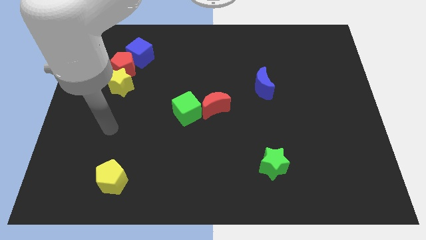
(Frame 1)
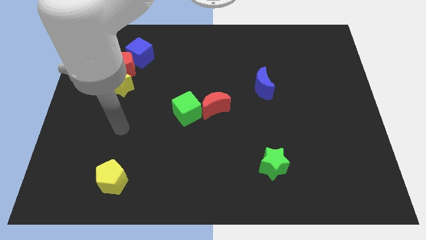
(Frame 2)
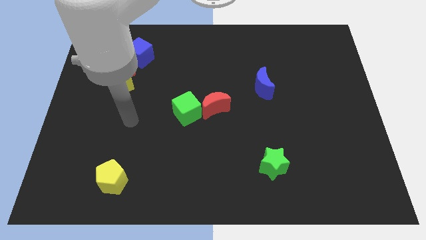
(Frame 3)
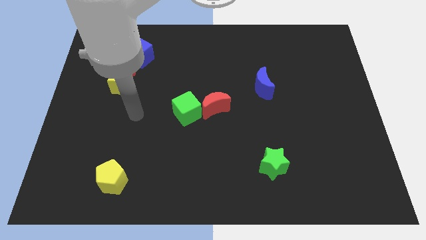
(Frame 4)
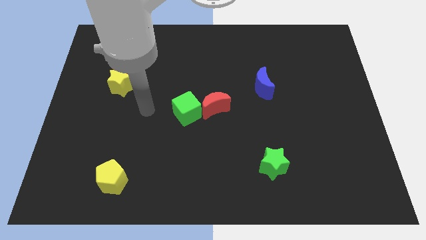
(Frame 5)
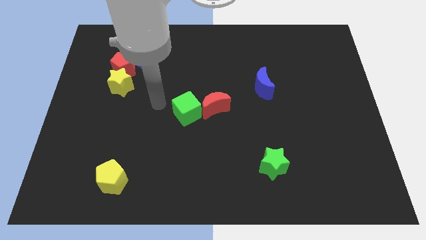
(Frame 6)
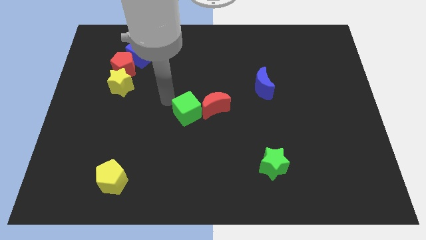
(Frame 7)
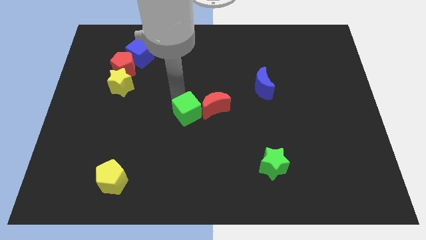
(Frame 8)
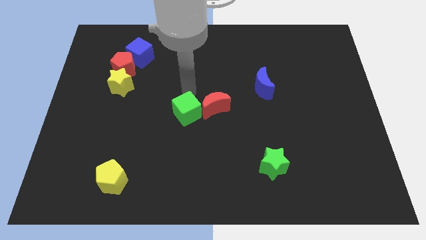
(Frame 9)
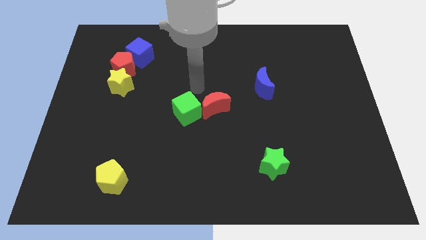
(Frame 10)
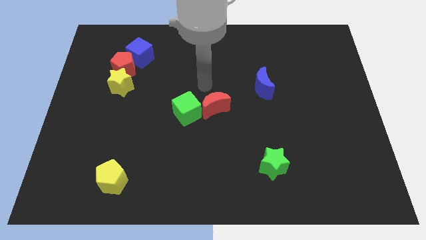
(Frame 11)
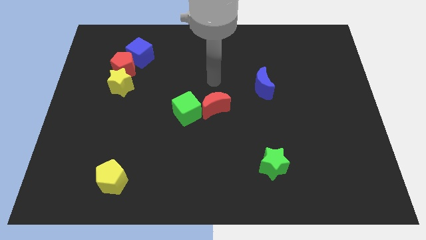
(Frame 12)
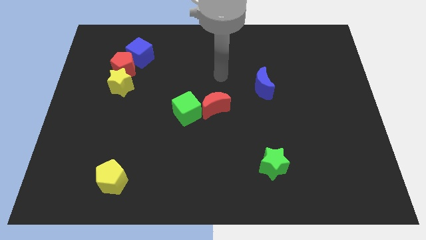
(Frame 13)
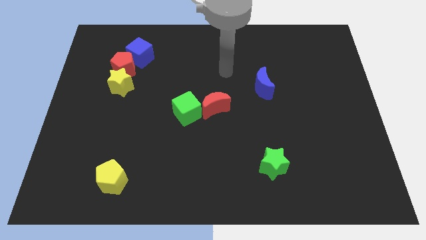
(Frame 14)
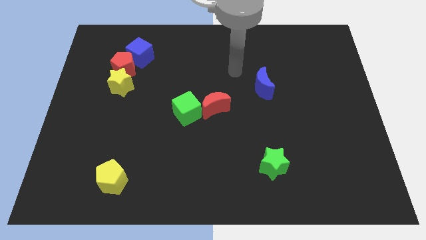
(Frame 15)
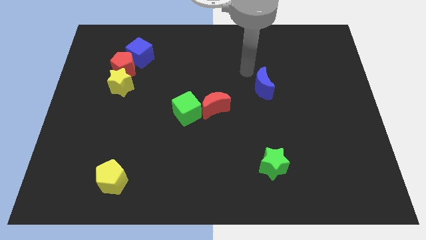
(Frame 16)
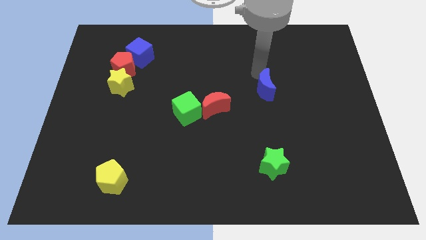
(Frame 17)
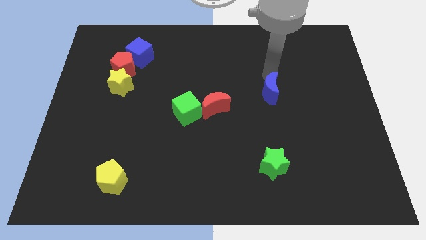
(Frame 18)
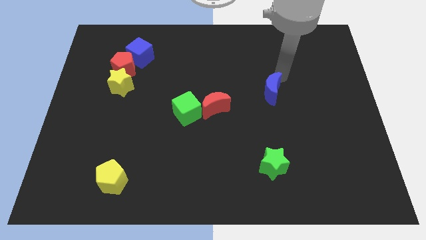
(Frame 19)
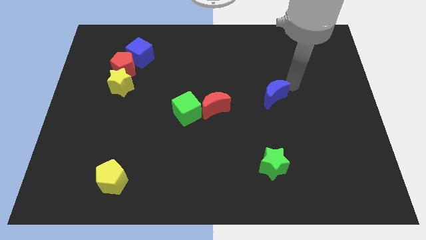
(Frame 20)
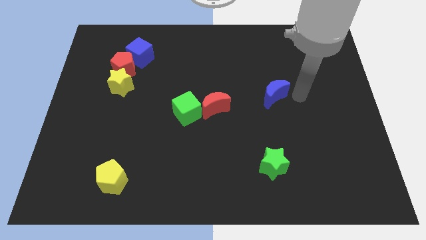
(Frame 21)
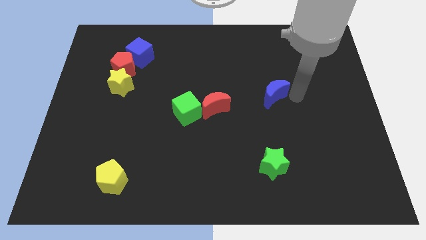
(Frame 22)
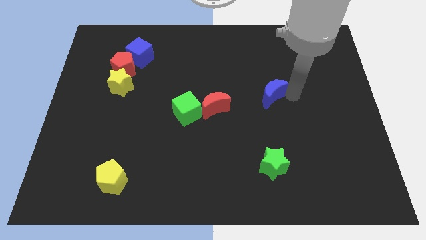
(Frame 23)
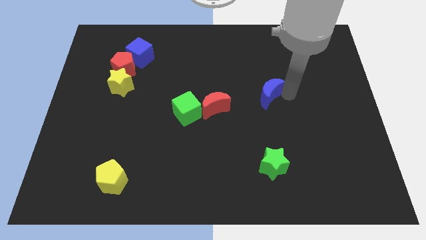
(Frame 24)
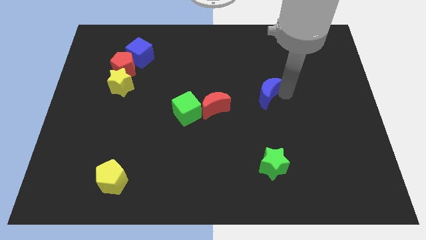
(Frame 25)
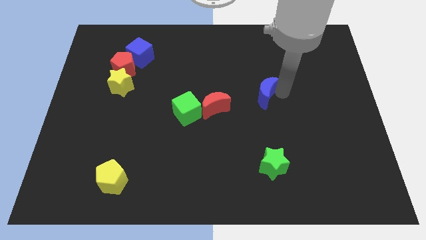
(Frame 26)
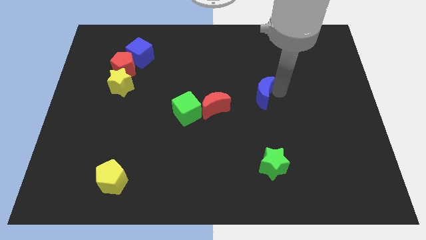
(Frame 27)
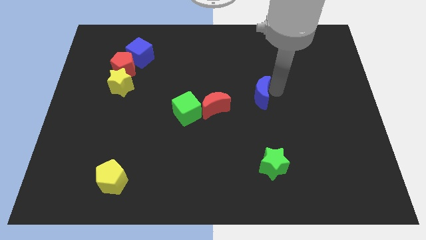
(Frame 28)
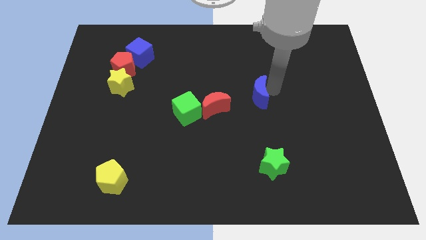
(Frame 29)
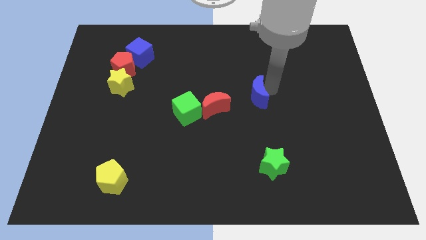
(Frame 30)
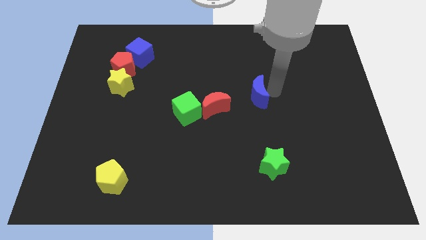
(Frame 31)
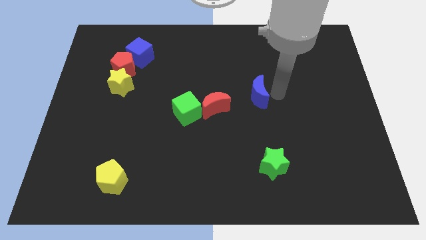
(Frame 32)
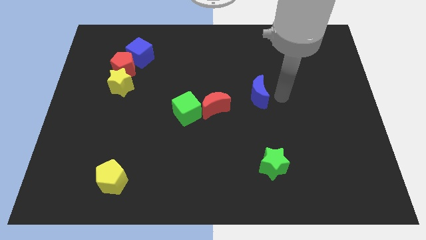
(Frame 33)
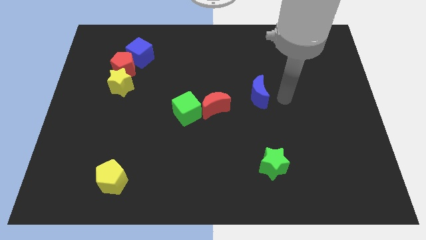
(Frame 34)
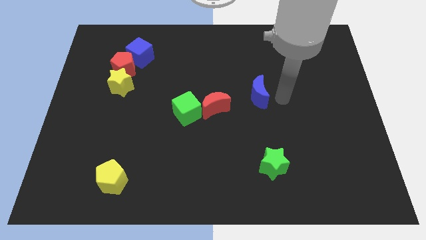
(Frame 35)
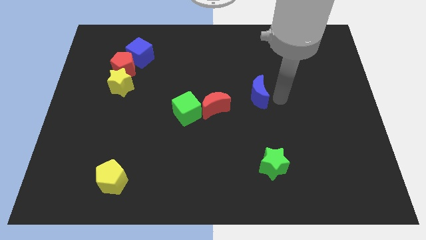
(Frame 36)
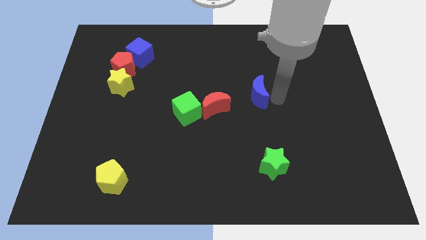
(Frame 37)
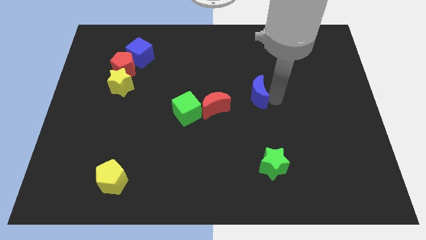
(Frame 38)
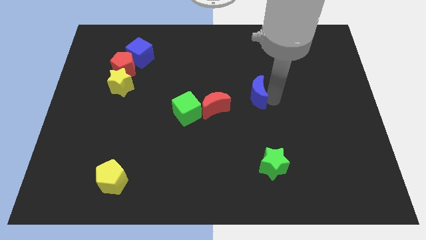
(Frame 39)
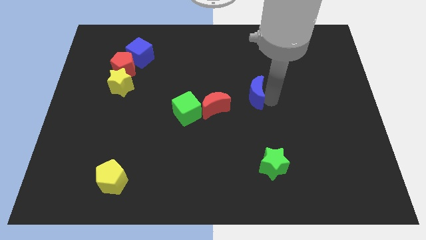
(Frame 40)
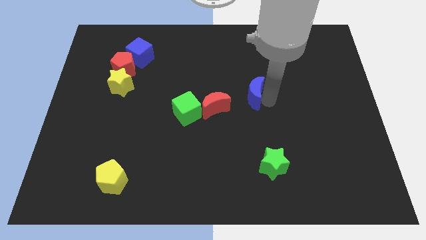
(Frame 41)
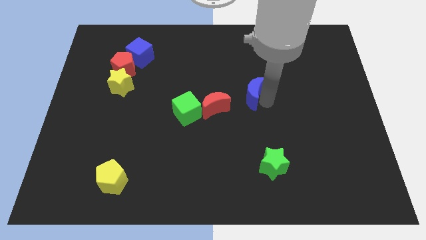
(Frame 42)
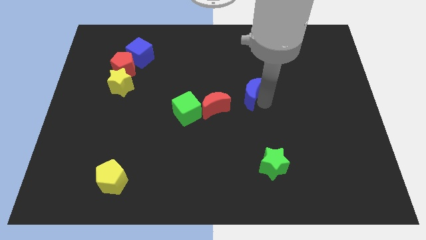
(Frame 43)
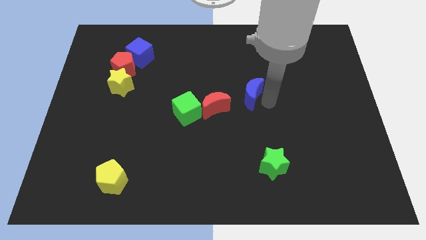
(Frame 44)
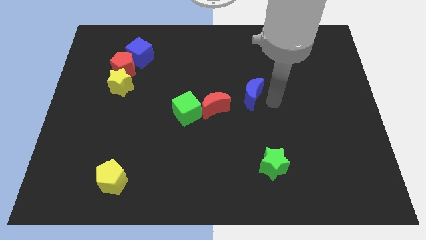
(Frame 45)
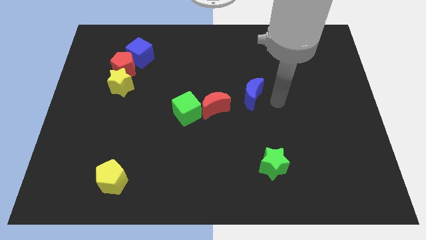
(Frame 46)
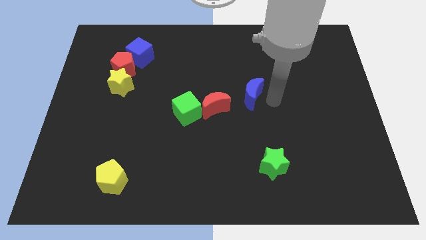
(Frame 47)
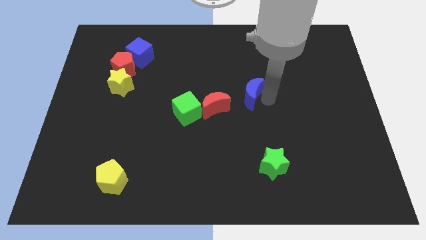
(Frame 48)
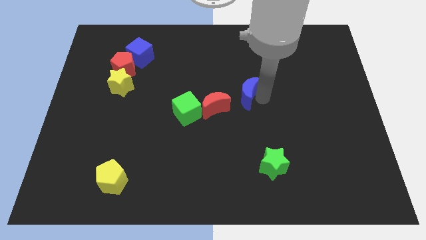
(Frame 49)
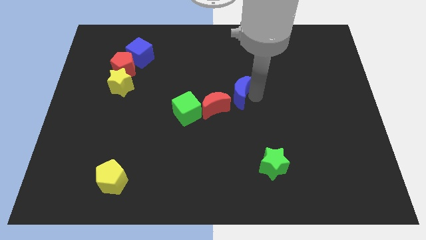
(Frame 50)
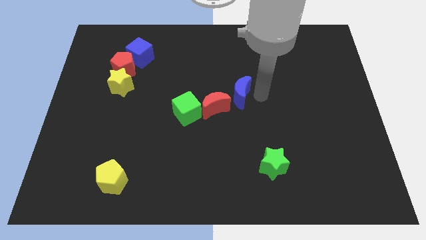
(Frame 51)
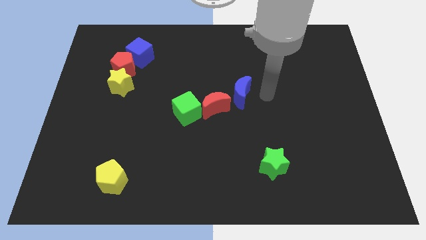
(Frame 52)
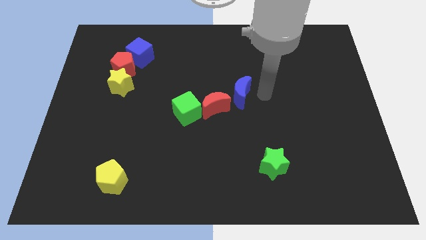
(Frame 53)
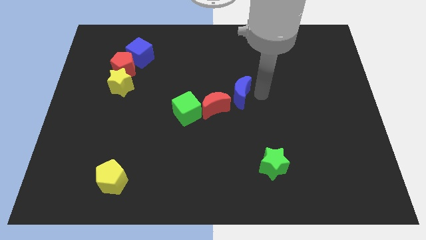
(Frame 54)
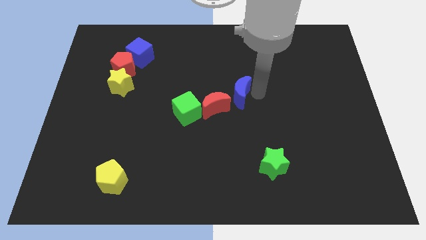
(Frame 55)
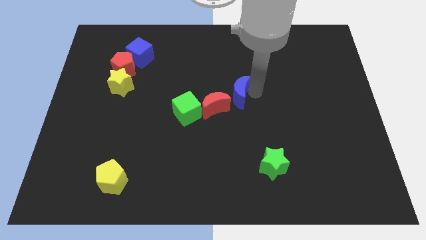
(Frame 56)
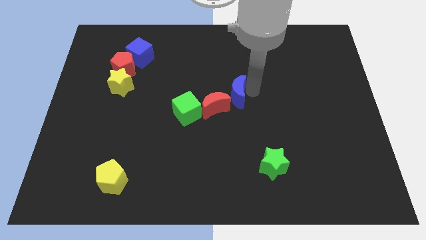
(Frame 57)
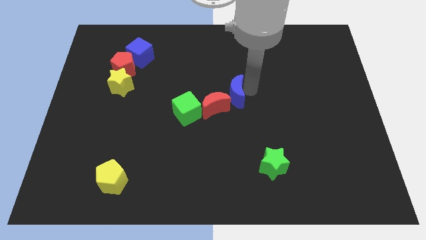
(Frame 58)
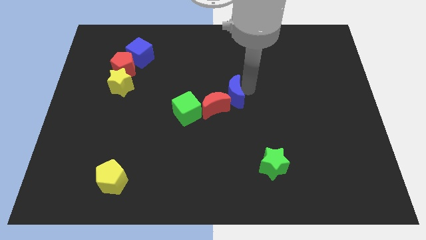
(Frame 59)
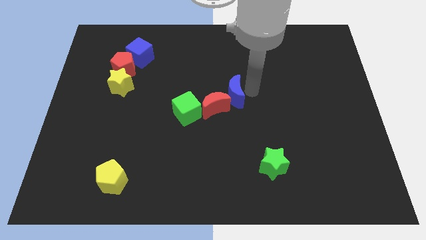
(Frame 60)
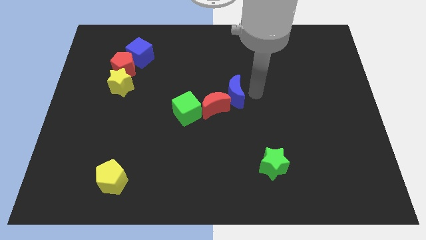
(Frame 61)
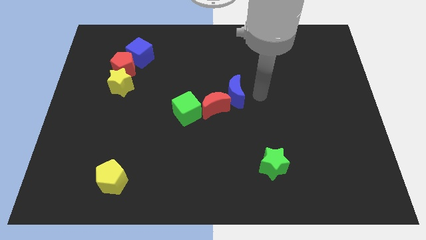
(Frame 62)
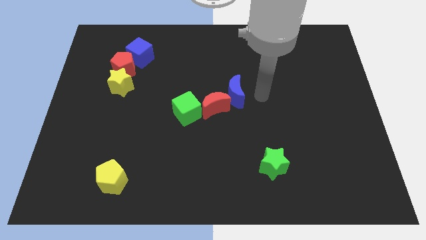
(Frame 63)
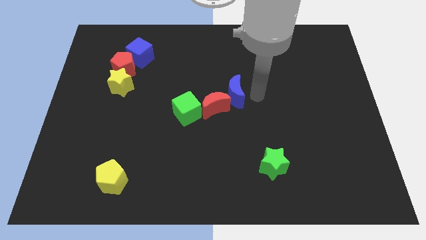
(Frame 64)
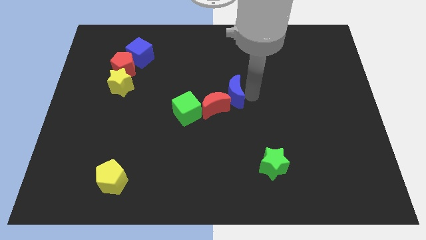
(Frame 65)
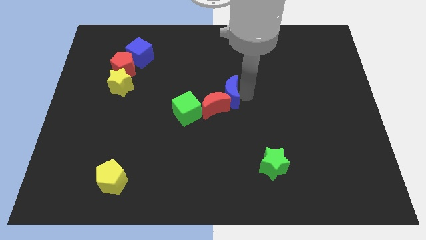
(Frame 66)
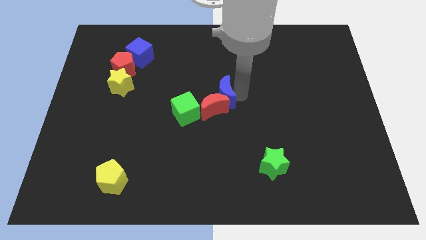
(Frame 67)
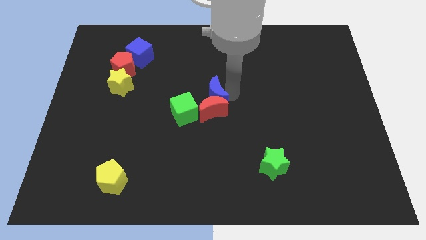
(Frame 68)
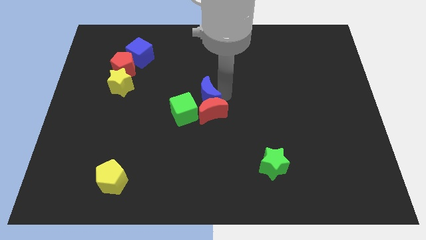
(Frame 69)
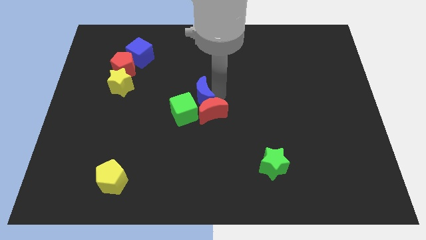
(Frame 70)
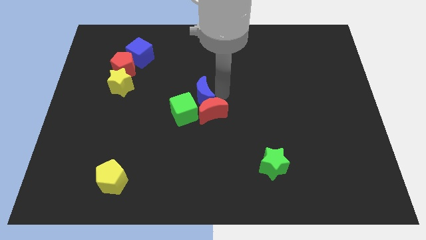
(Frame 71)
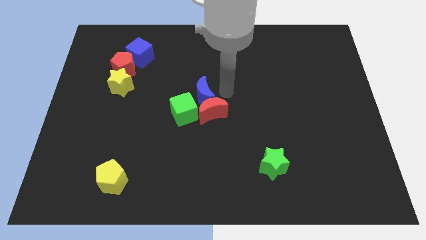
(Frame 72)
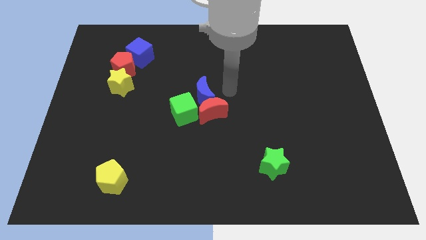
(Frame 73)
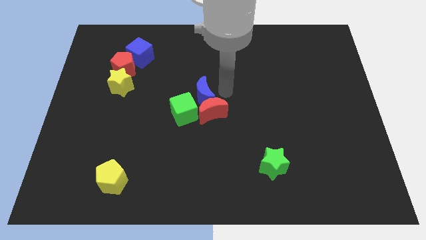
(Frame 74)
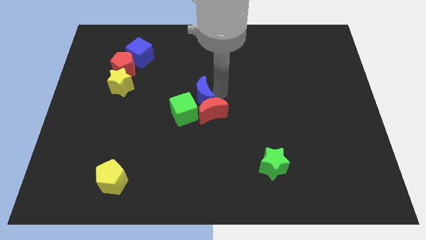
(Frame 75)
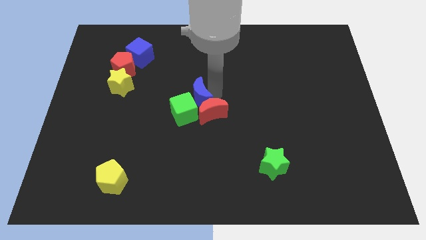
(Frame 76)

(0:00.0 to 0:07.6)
put the blue moon towards the green cube
